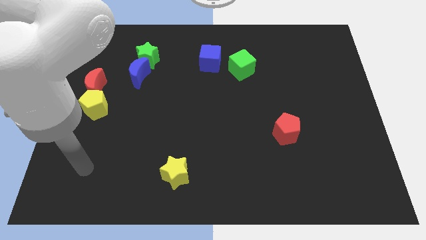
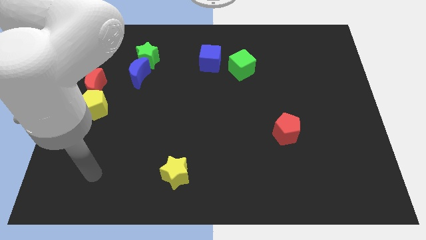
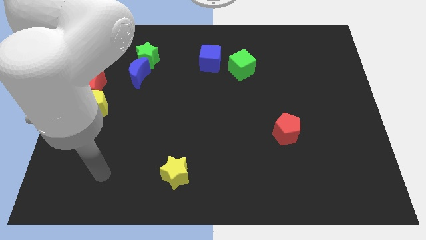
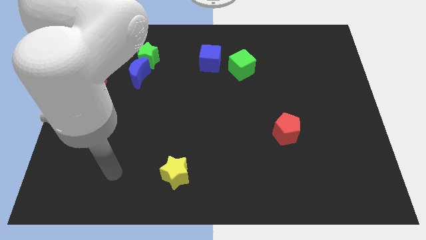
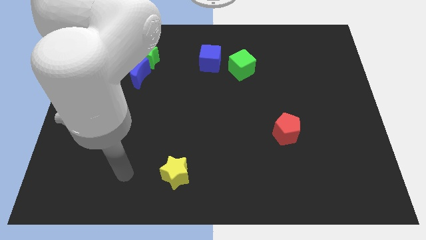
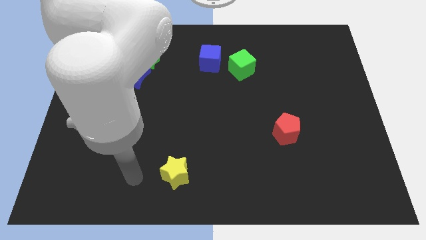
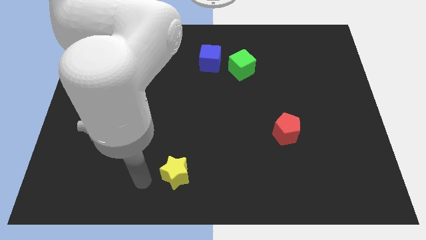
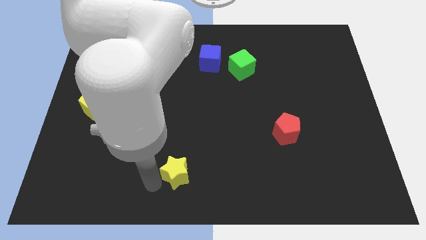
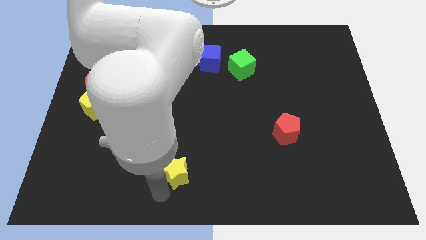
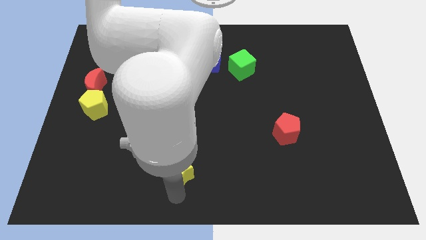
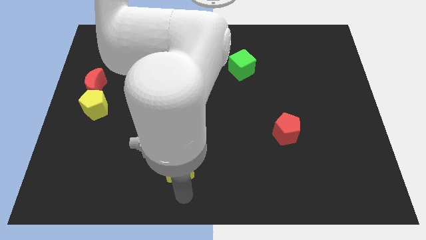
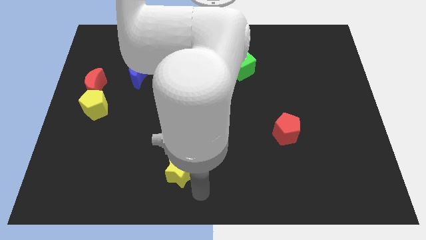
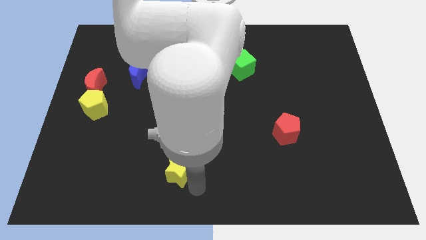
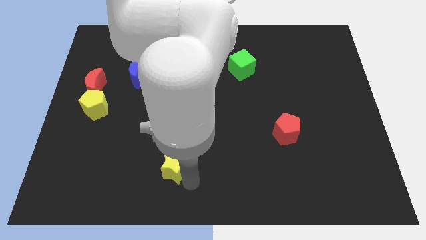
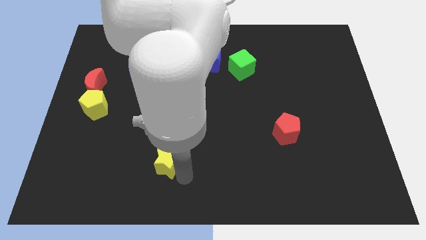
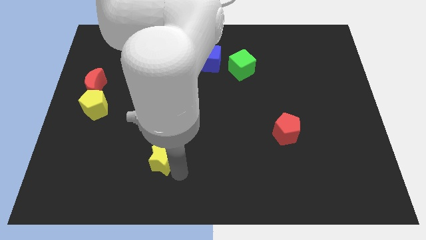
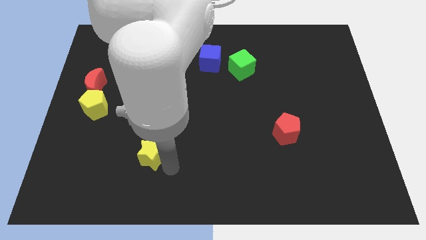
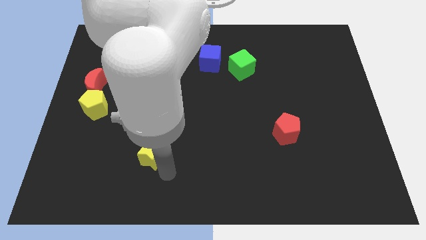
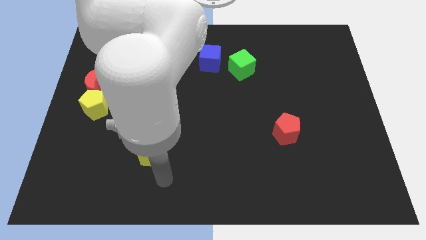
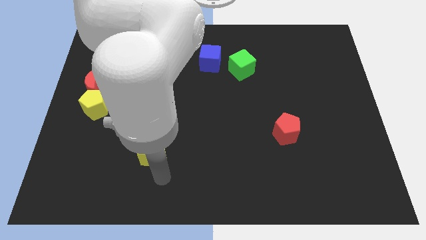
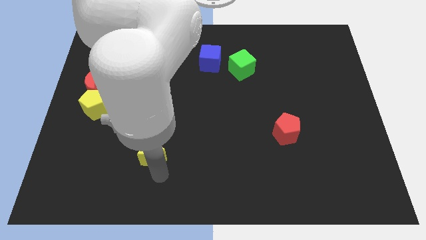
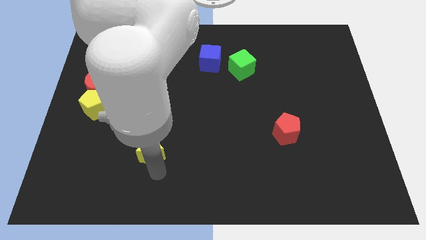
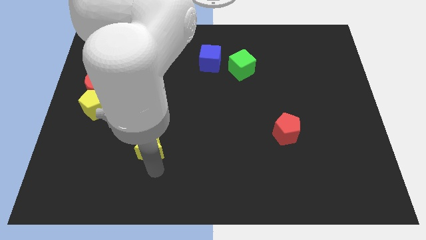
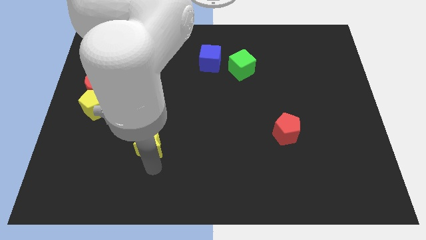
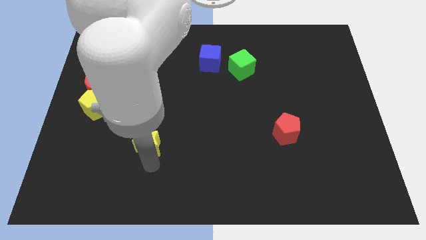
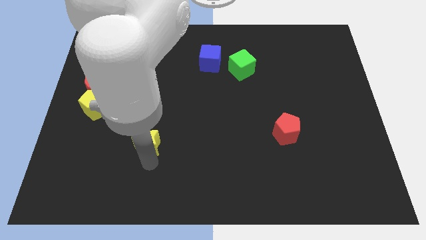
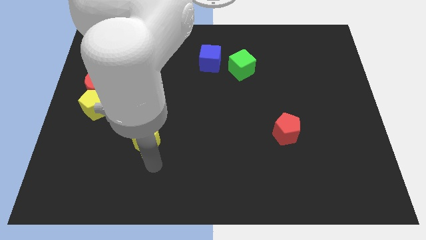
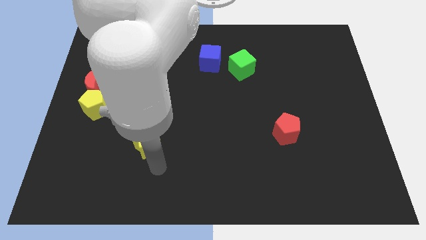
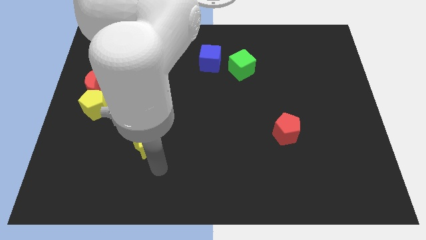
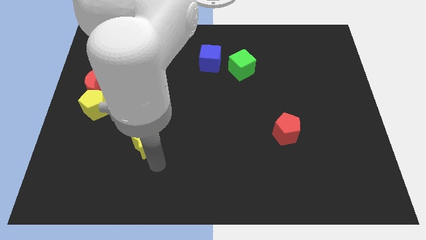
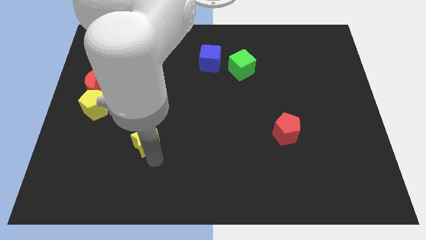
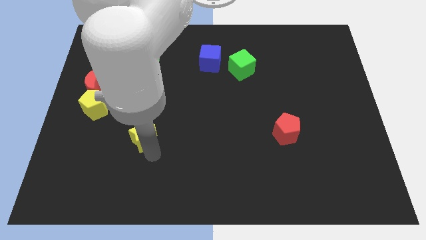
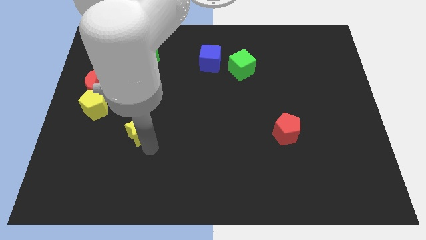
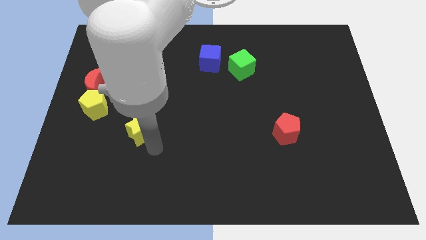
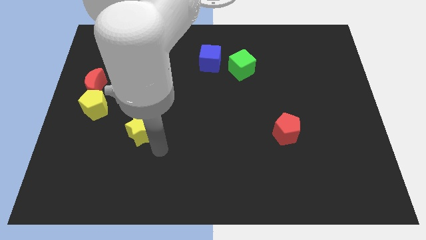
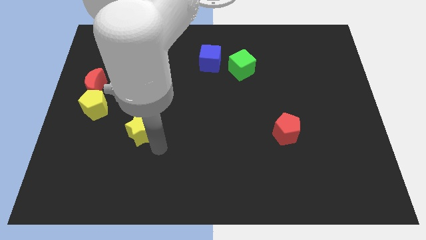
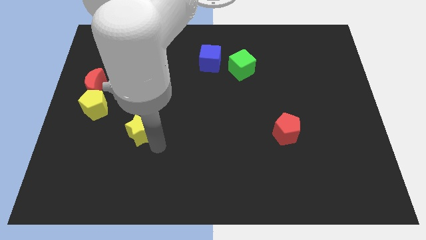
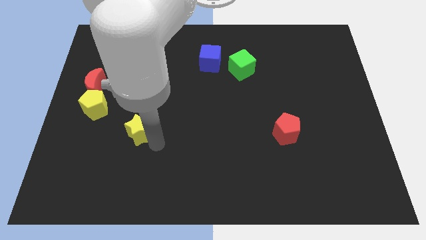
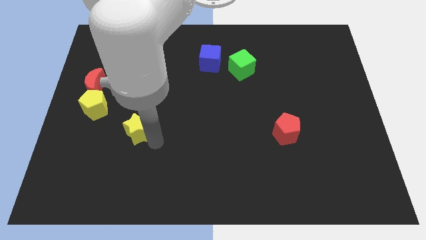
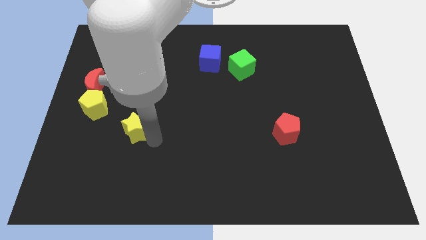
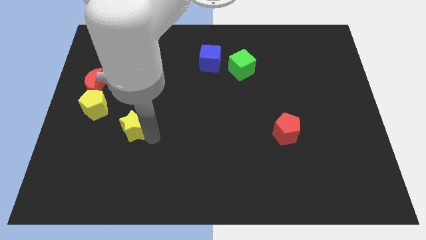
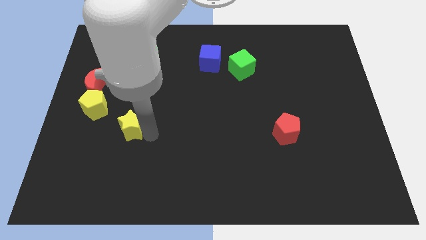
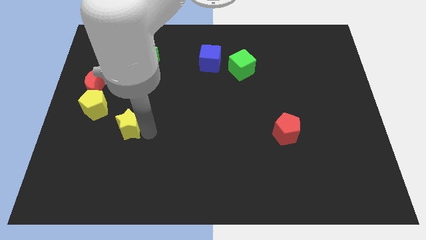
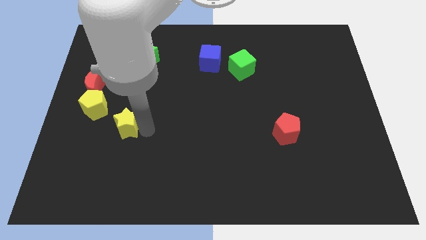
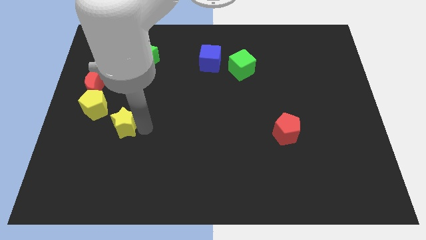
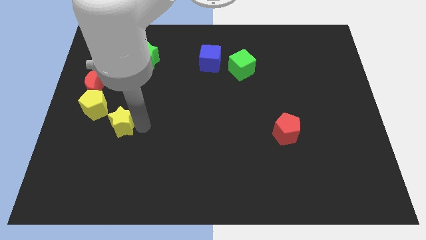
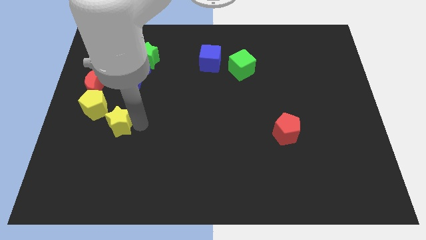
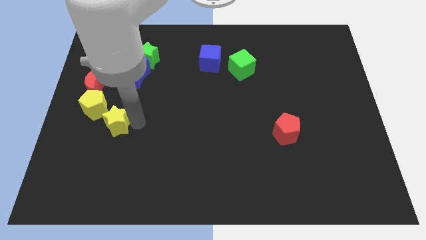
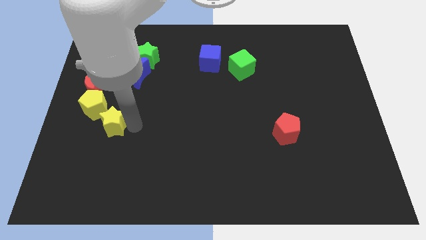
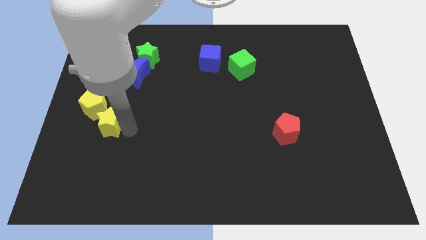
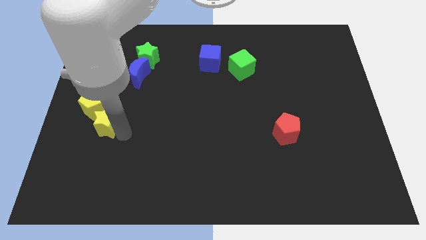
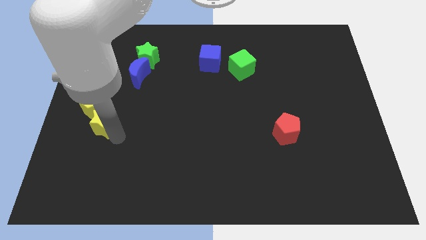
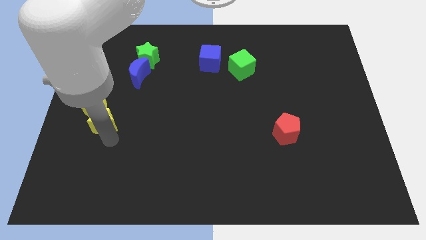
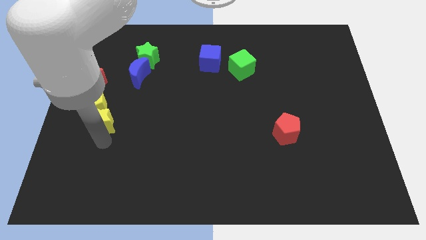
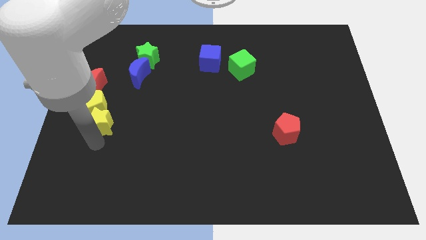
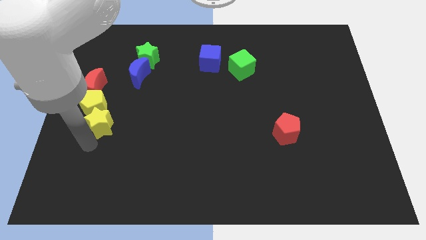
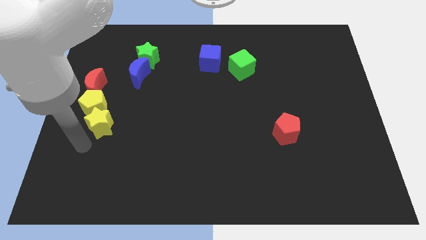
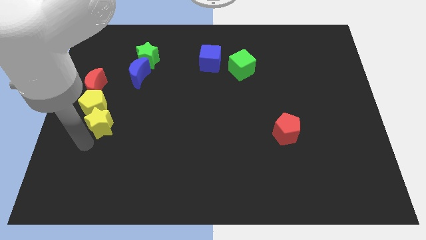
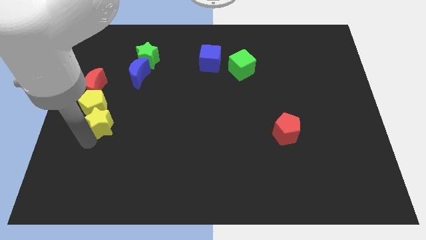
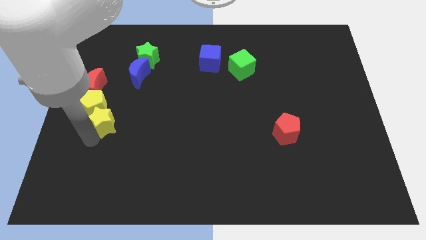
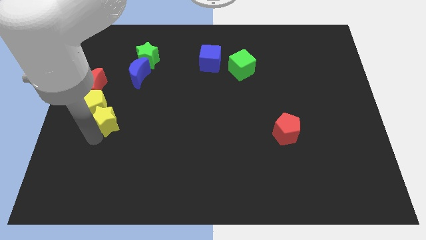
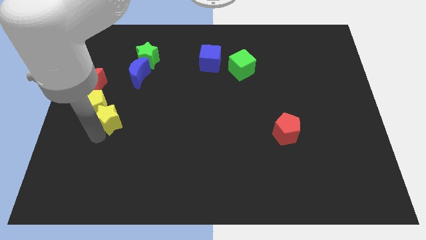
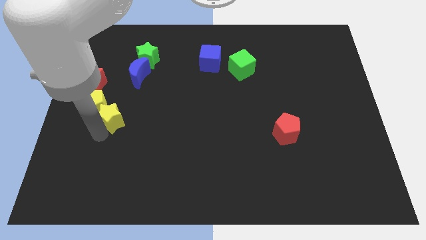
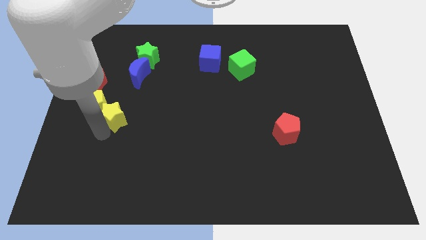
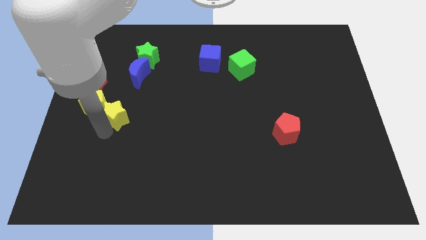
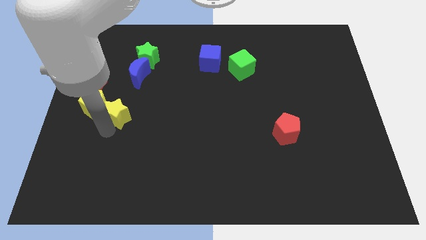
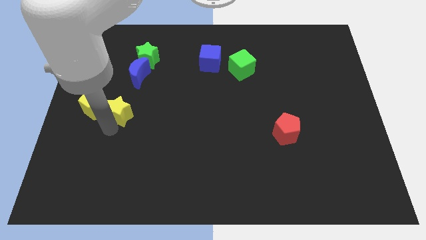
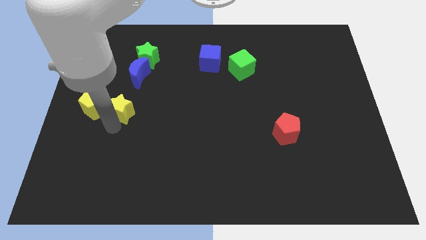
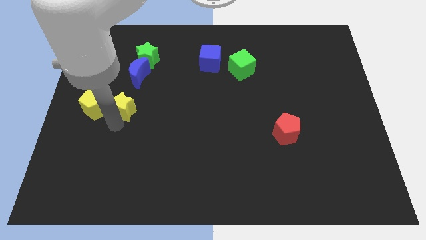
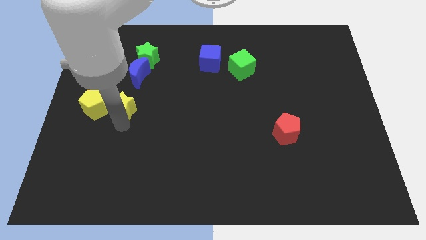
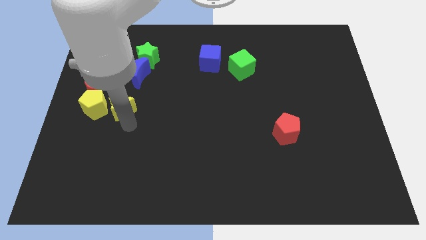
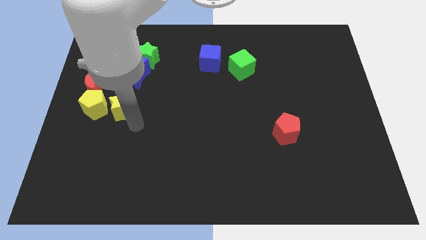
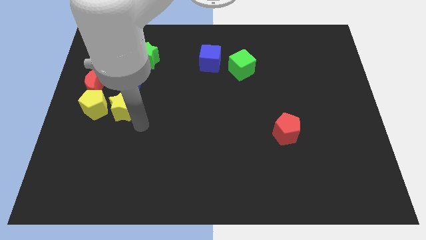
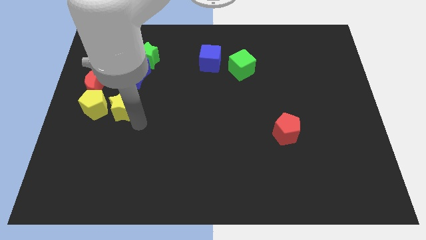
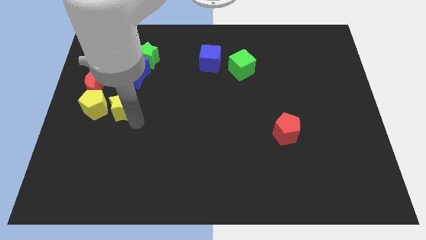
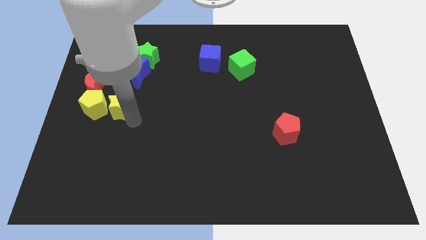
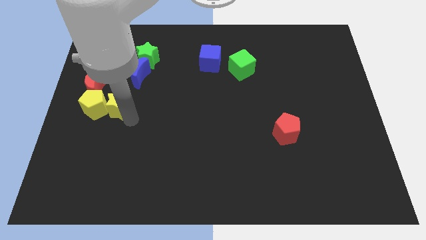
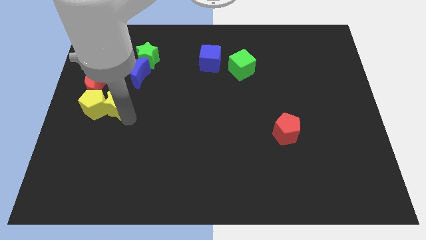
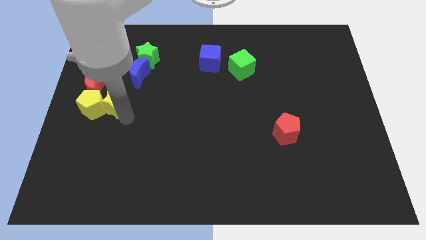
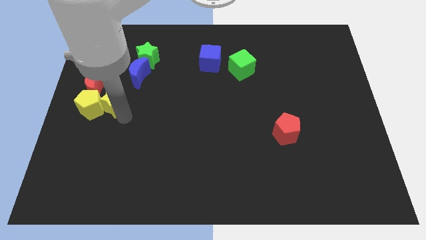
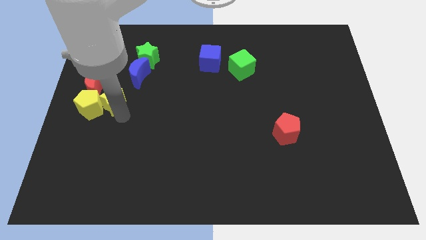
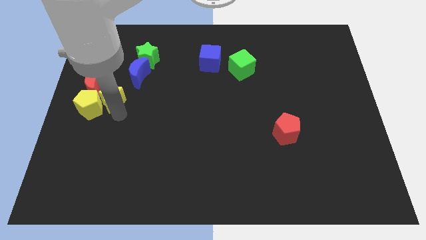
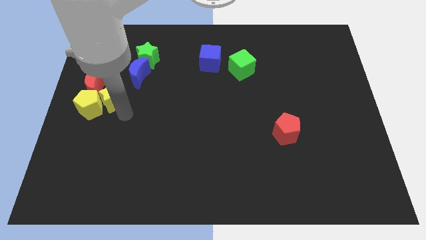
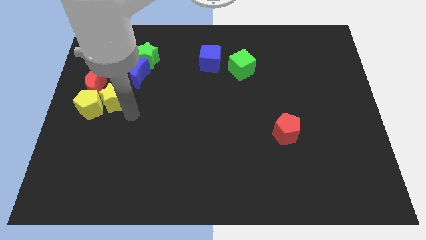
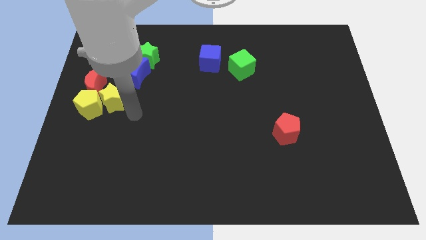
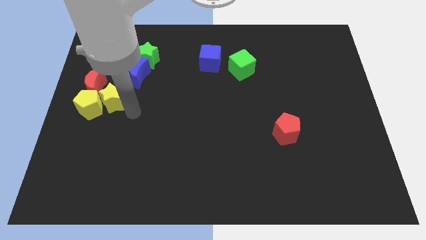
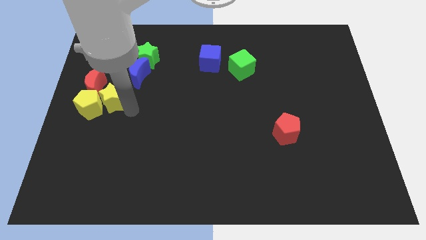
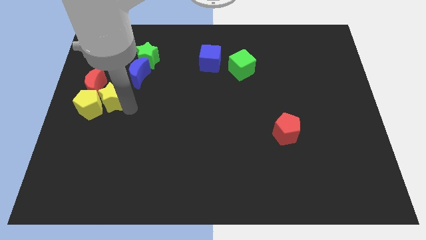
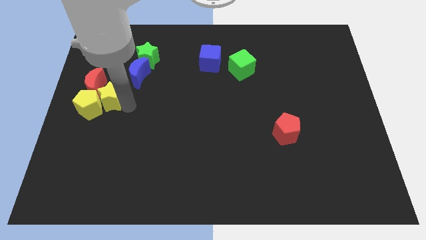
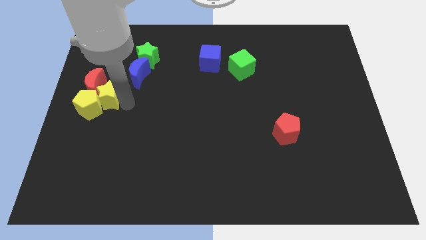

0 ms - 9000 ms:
move the yellow star close to the red moon
